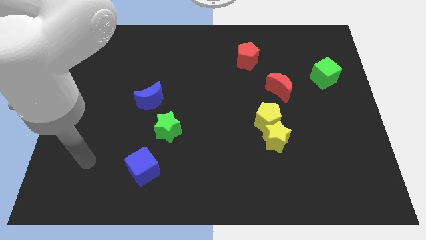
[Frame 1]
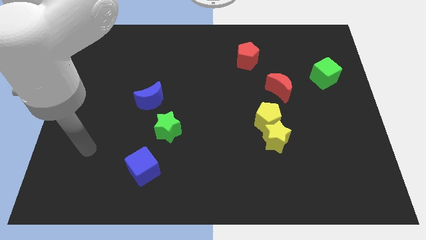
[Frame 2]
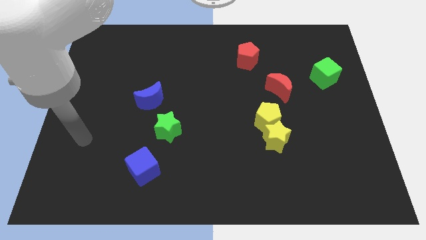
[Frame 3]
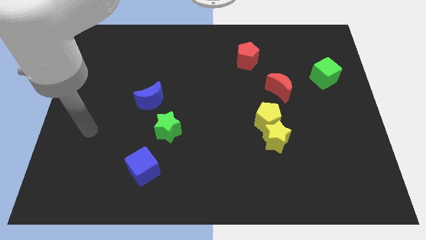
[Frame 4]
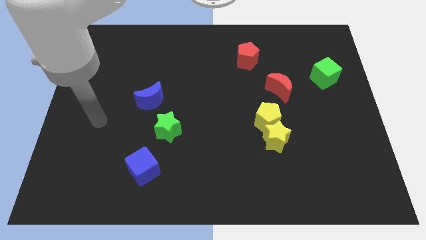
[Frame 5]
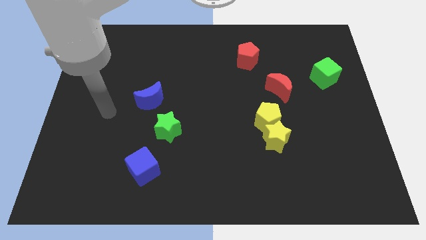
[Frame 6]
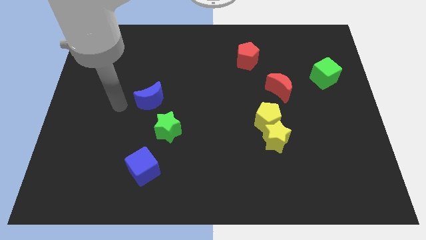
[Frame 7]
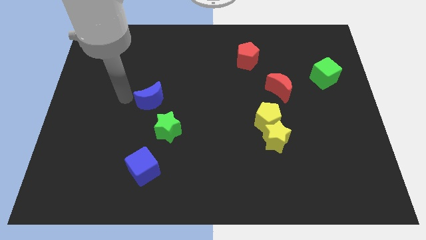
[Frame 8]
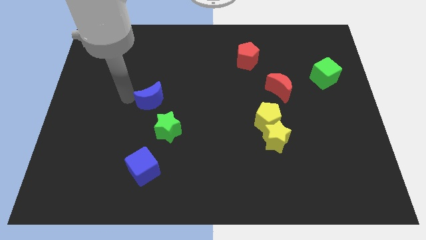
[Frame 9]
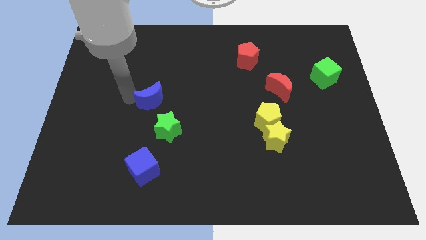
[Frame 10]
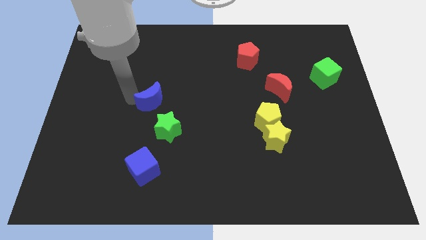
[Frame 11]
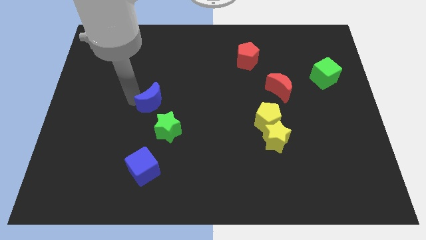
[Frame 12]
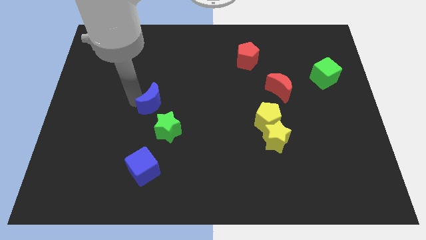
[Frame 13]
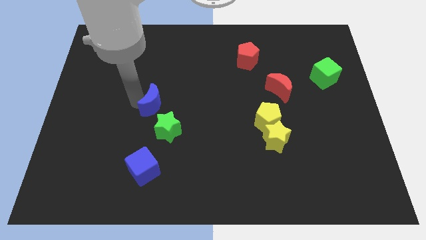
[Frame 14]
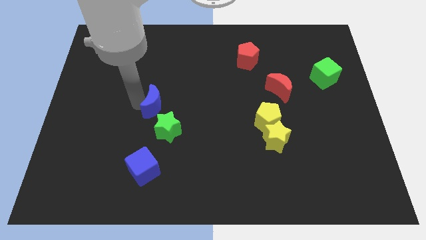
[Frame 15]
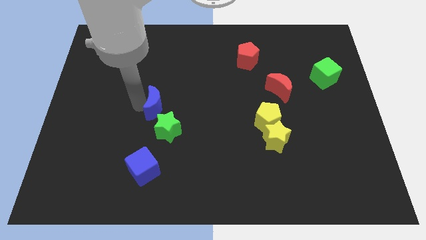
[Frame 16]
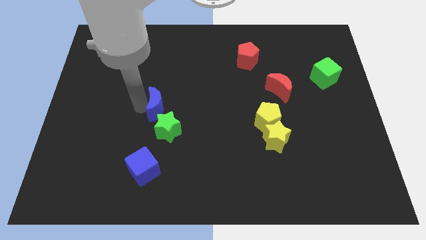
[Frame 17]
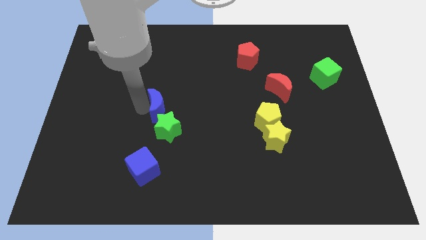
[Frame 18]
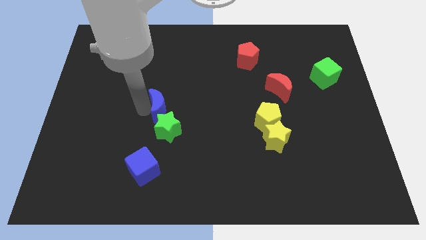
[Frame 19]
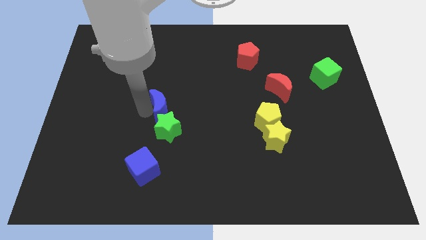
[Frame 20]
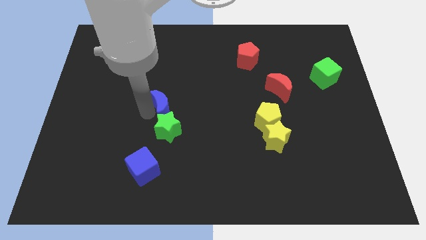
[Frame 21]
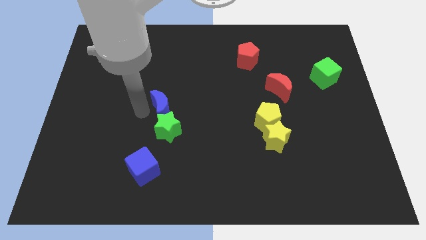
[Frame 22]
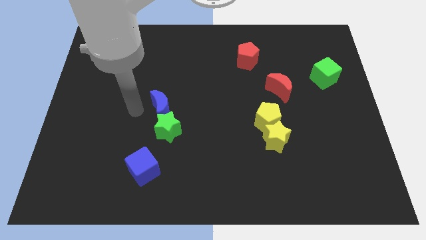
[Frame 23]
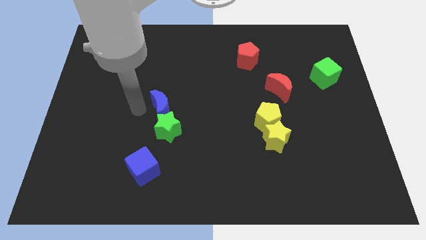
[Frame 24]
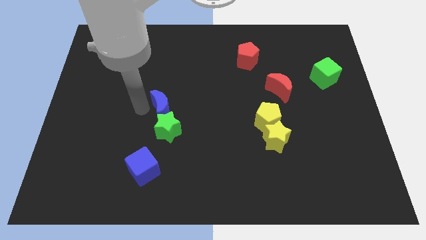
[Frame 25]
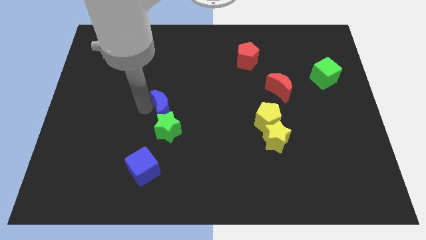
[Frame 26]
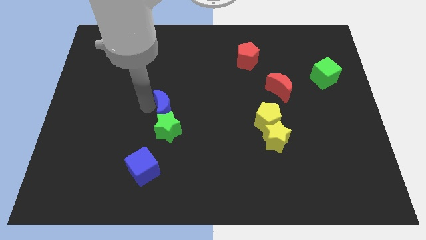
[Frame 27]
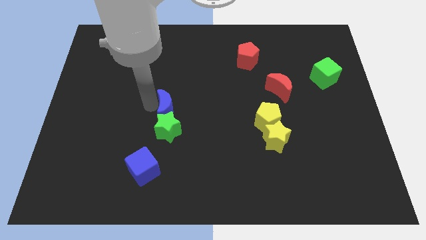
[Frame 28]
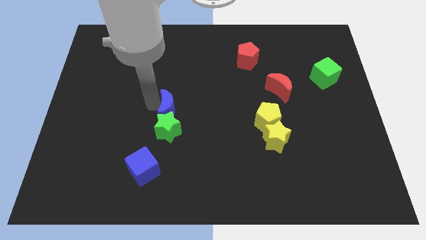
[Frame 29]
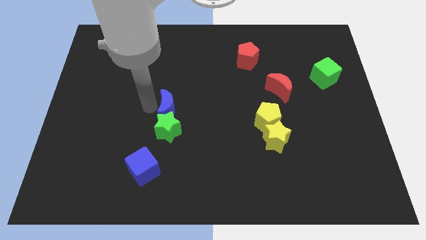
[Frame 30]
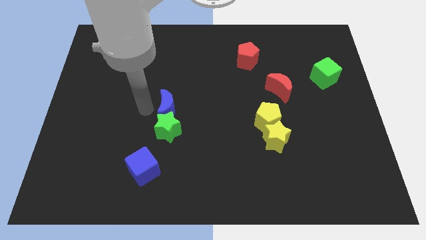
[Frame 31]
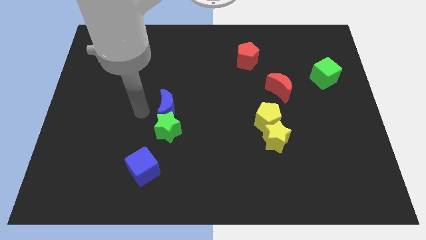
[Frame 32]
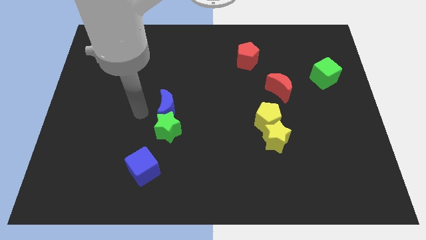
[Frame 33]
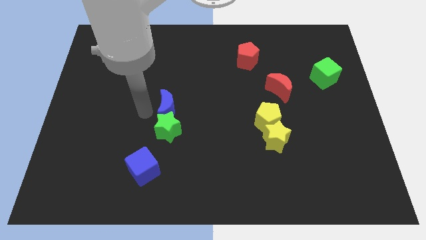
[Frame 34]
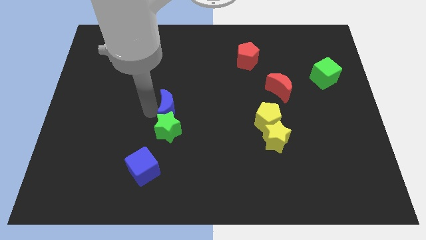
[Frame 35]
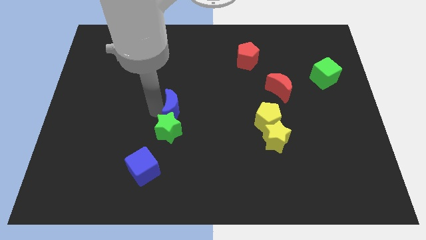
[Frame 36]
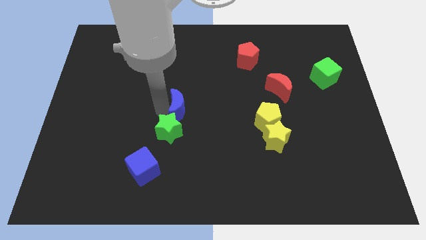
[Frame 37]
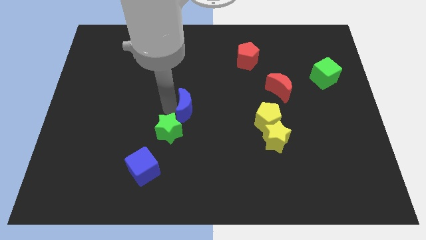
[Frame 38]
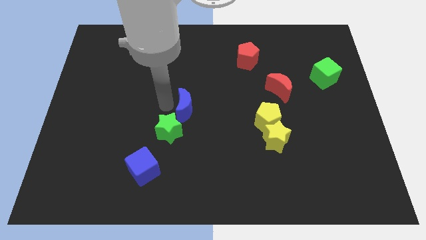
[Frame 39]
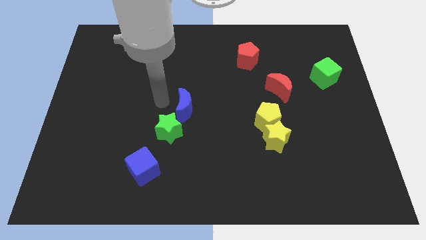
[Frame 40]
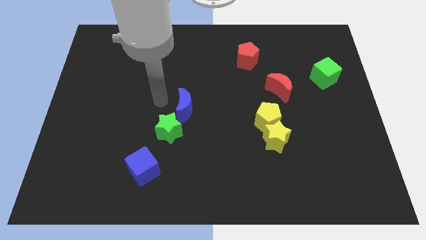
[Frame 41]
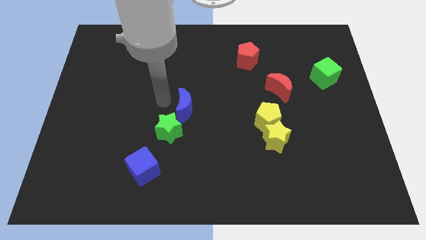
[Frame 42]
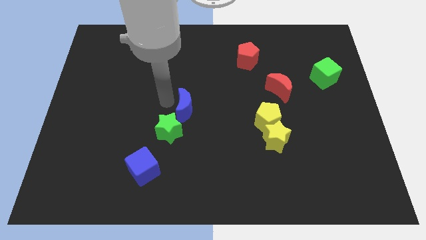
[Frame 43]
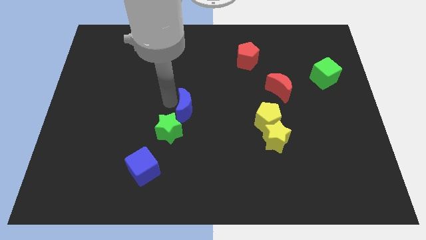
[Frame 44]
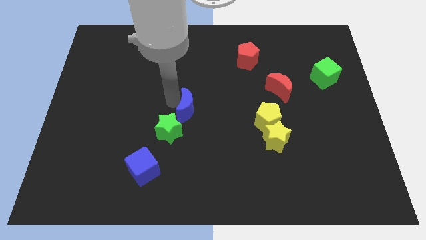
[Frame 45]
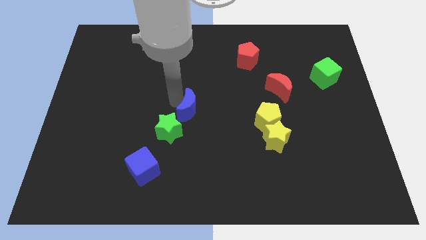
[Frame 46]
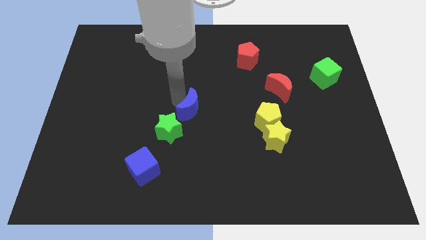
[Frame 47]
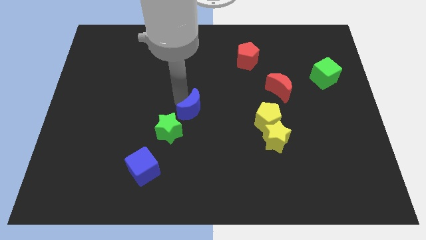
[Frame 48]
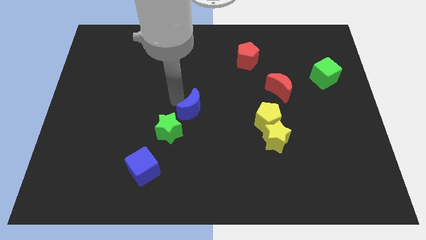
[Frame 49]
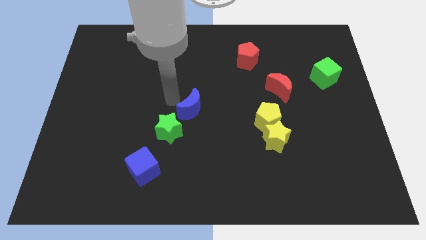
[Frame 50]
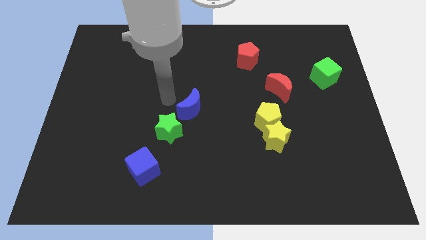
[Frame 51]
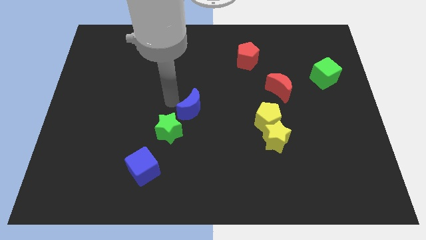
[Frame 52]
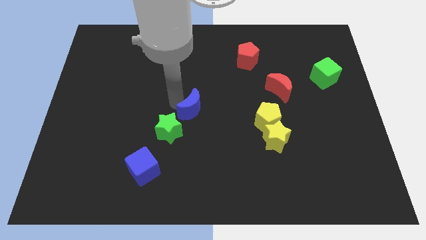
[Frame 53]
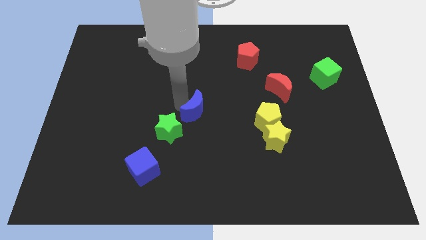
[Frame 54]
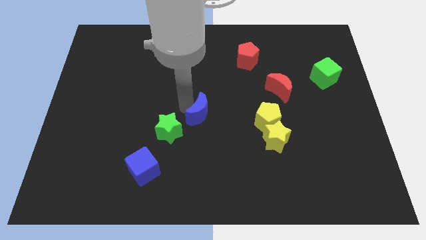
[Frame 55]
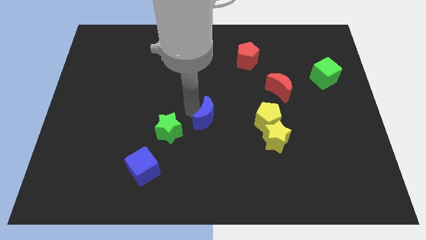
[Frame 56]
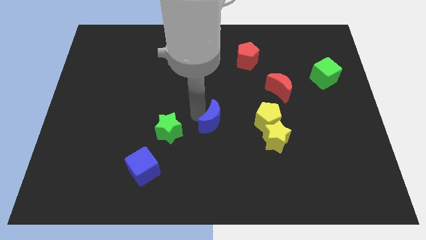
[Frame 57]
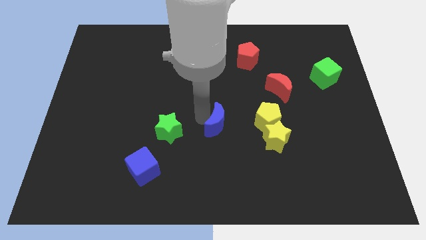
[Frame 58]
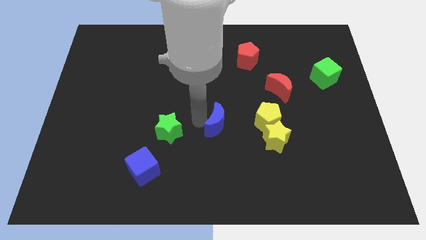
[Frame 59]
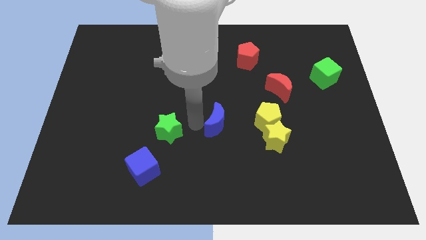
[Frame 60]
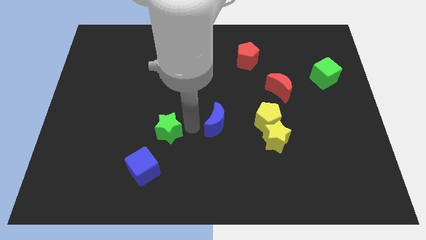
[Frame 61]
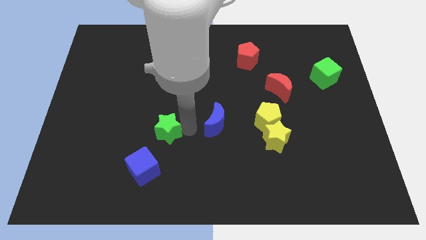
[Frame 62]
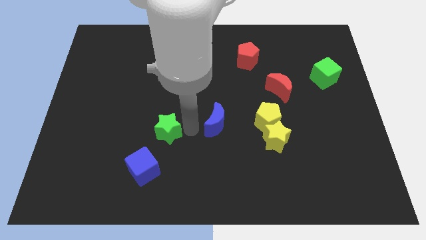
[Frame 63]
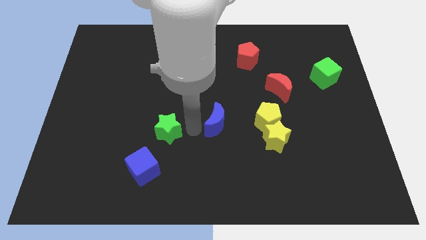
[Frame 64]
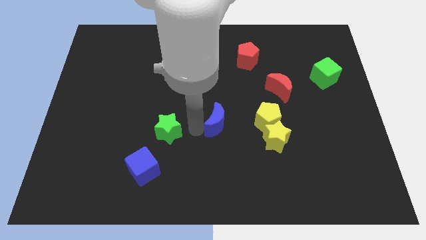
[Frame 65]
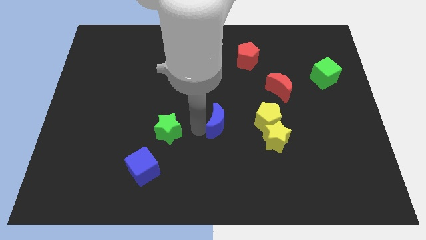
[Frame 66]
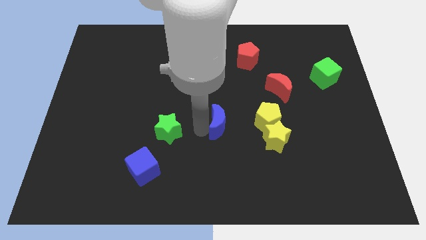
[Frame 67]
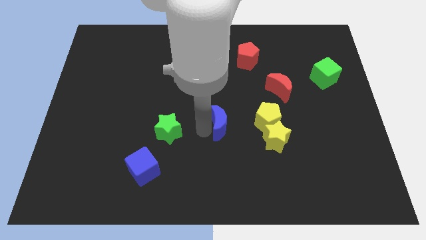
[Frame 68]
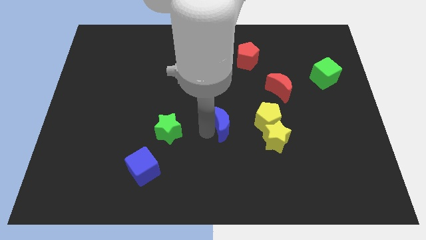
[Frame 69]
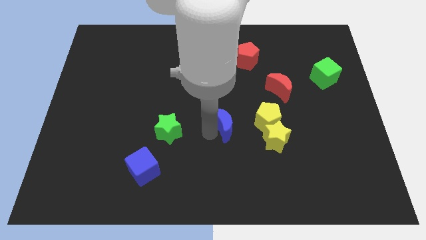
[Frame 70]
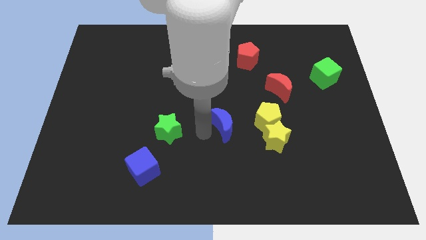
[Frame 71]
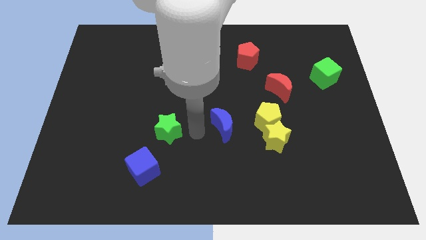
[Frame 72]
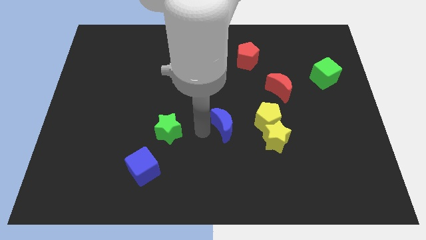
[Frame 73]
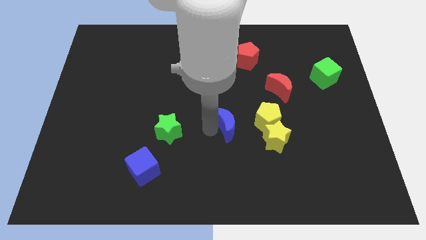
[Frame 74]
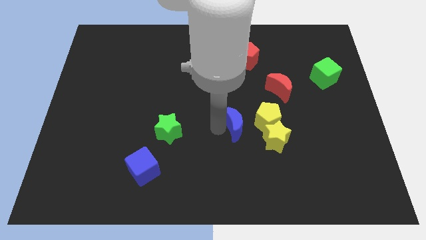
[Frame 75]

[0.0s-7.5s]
push the blue moon diagonally up and to the left of the yellow star
